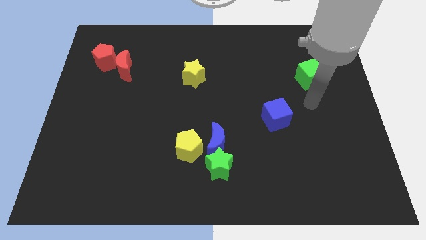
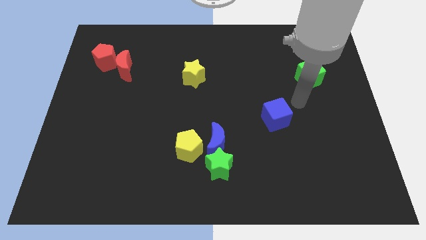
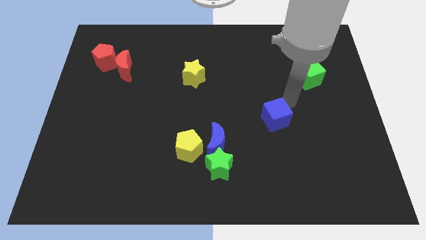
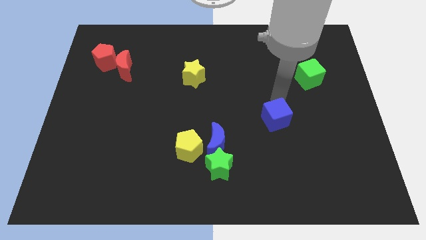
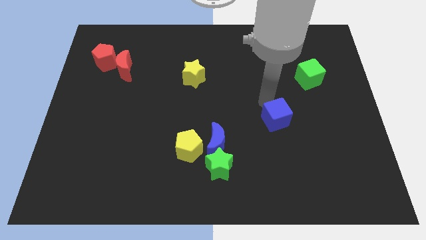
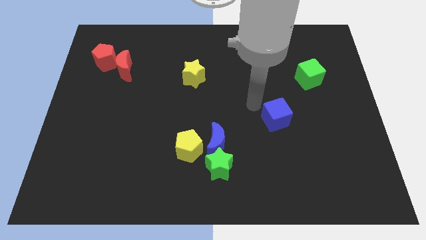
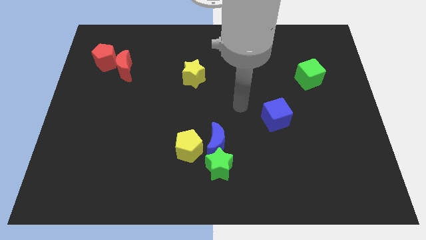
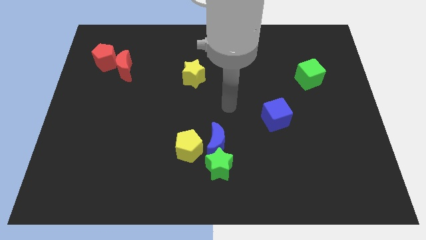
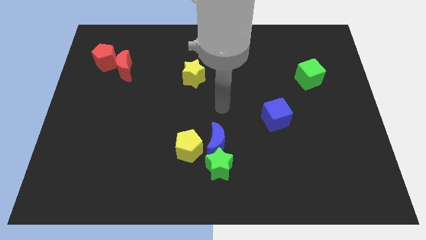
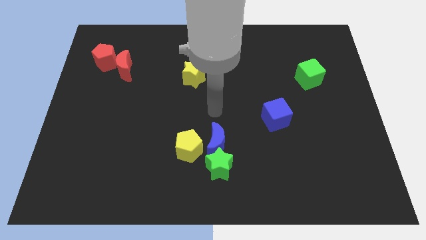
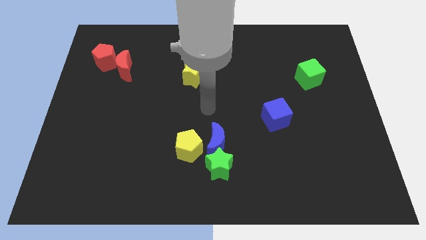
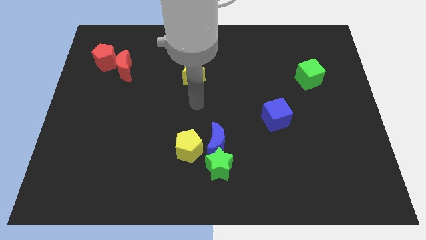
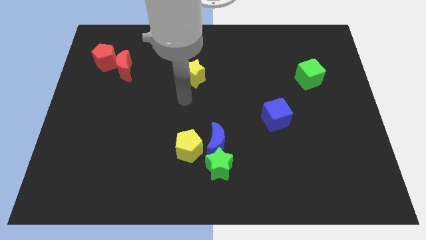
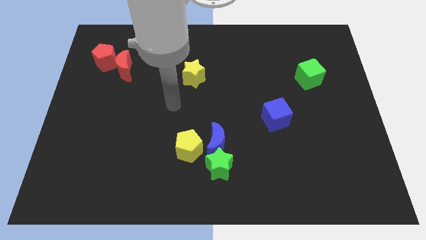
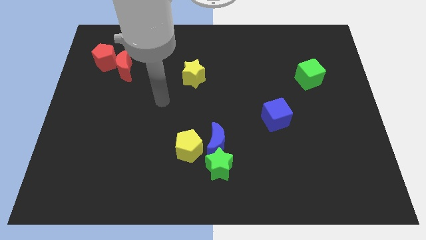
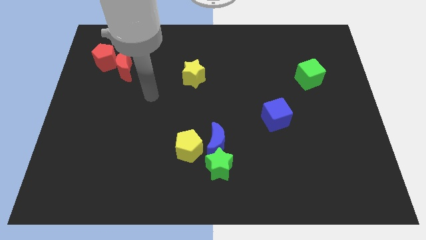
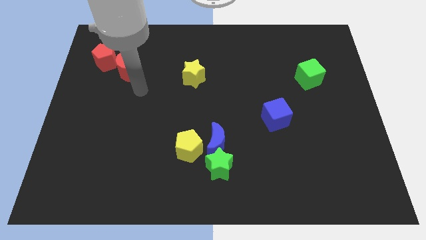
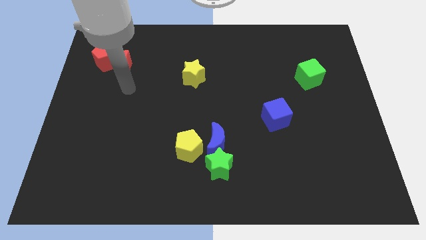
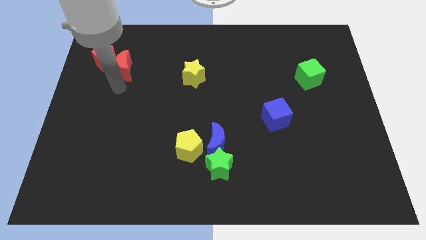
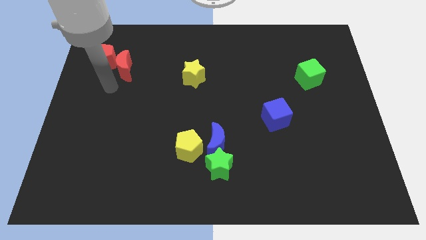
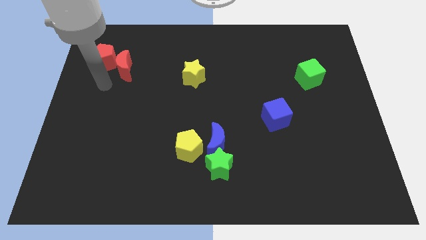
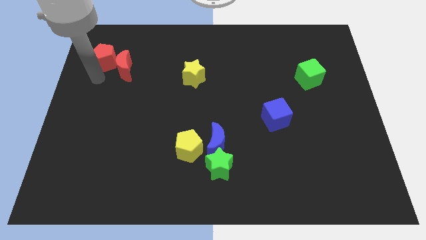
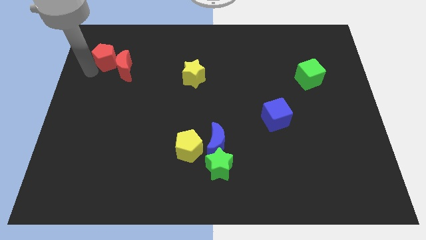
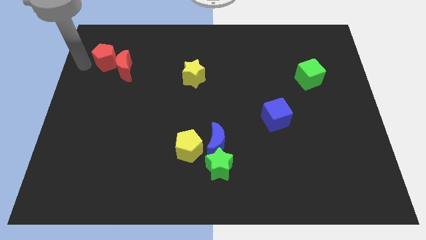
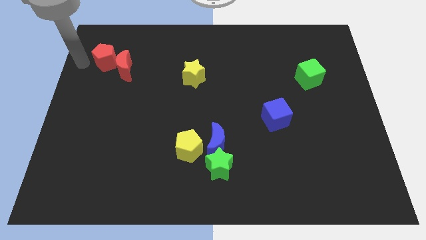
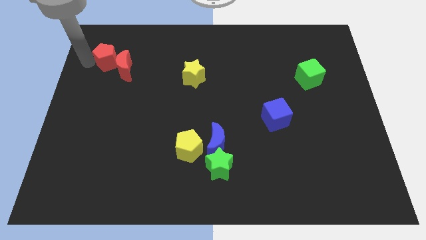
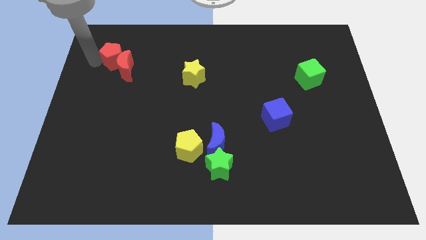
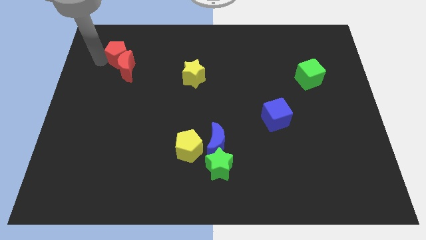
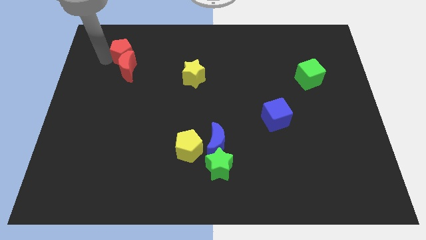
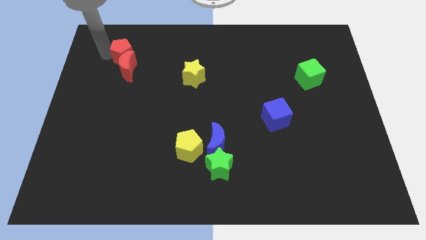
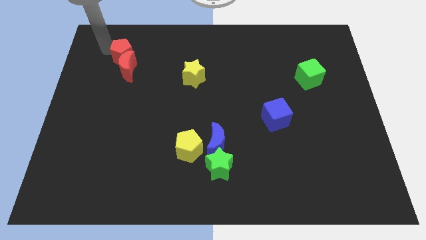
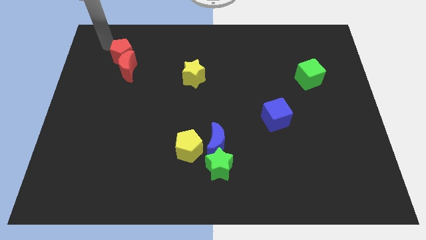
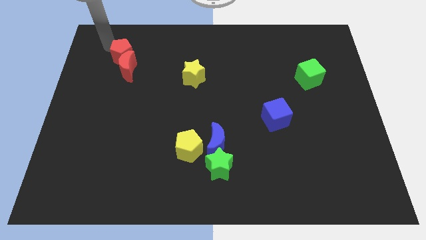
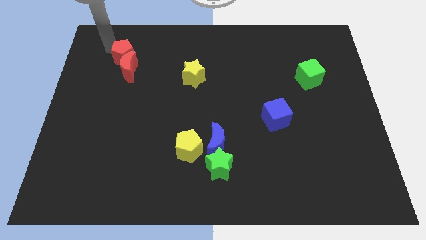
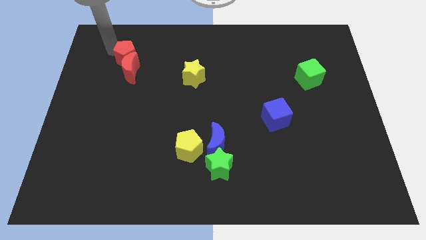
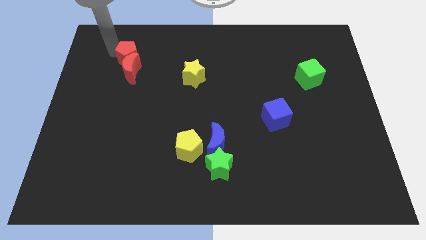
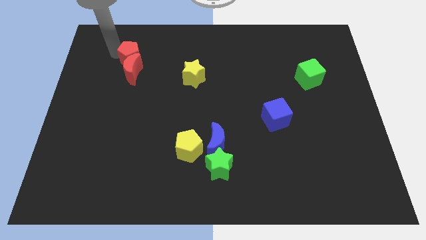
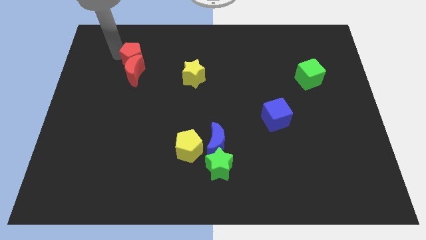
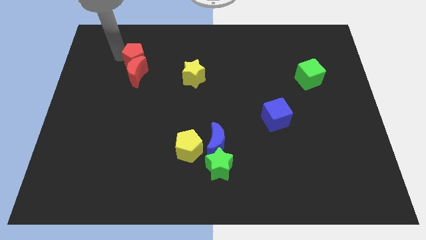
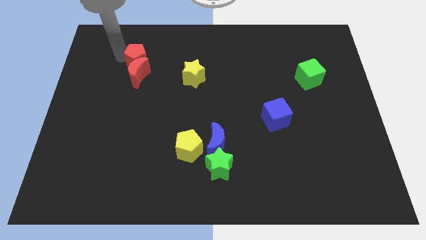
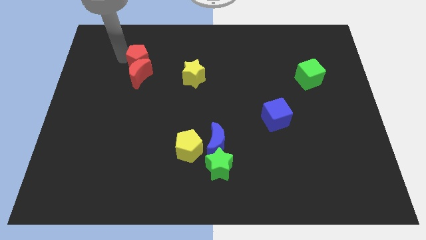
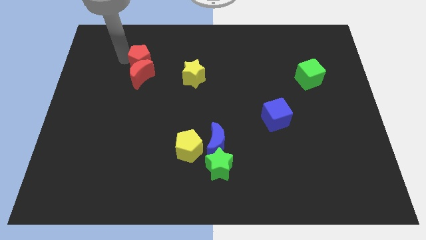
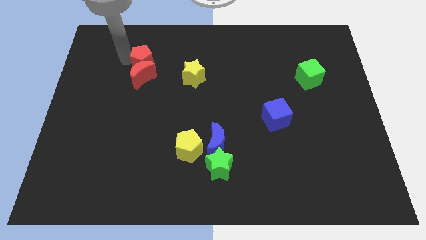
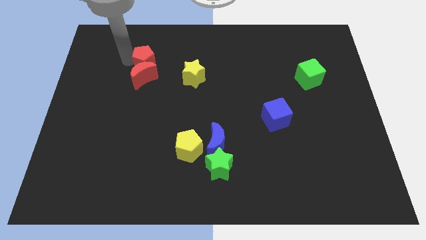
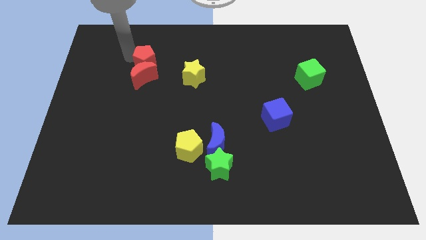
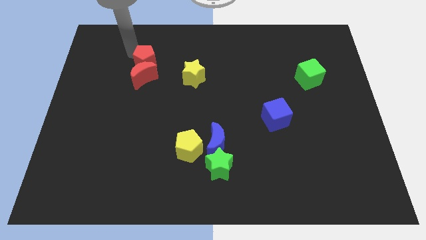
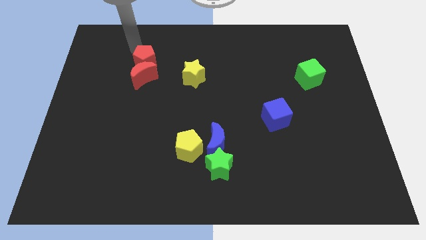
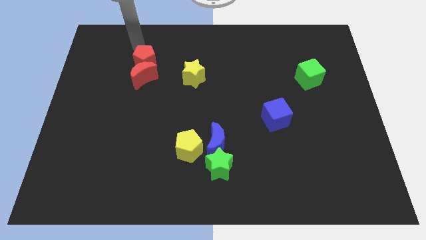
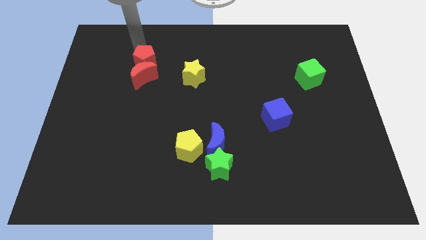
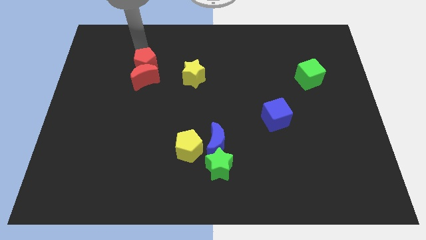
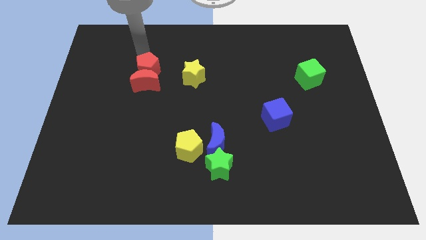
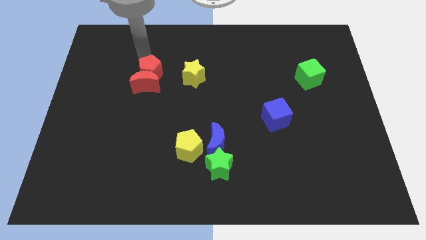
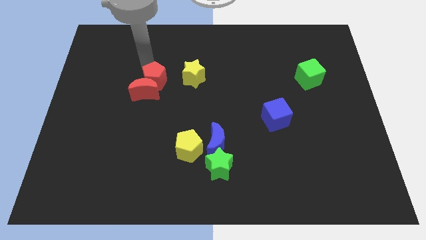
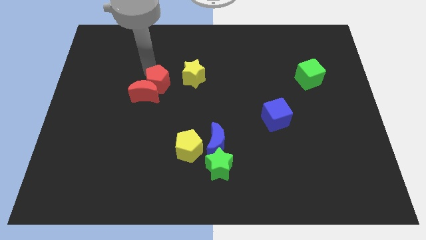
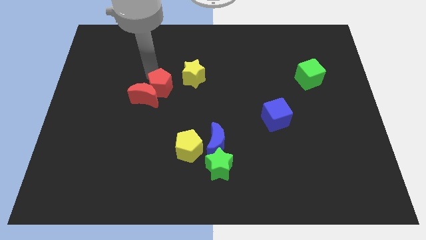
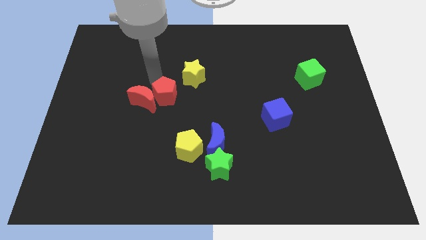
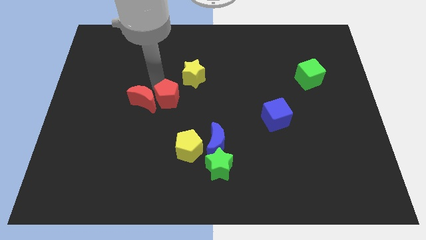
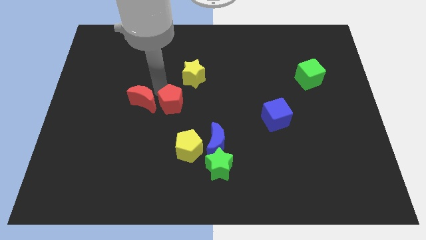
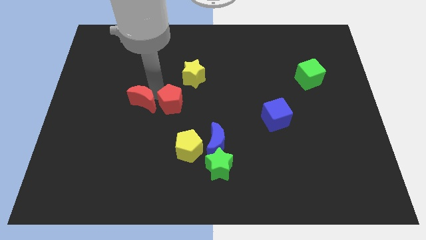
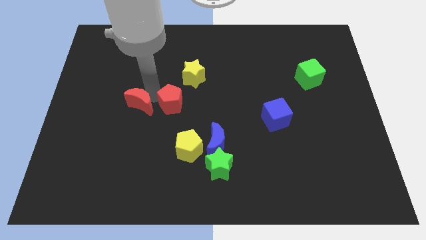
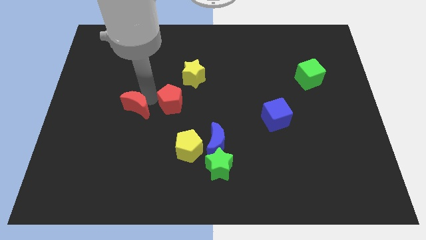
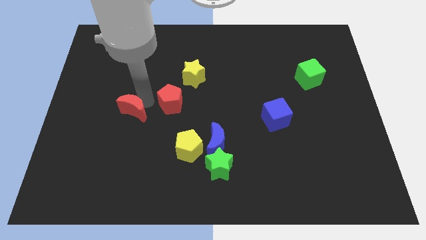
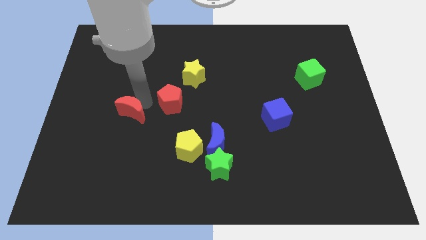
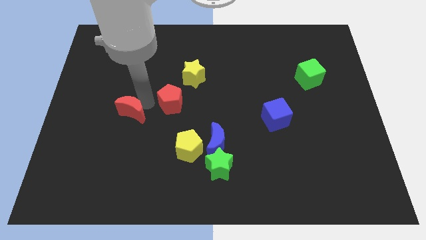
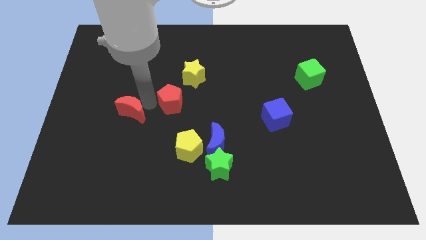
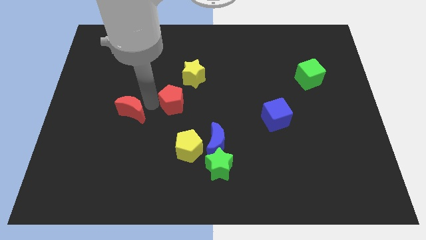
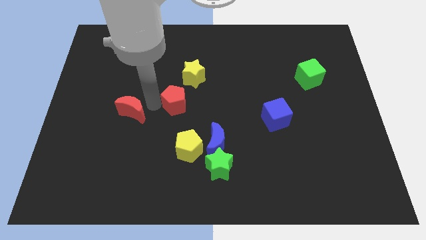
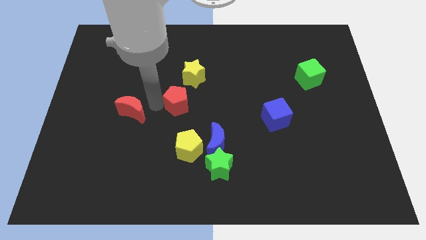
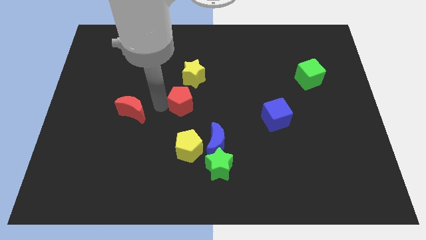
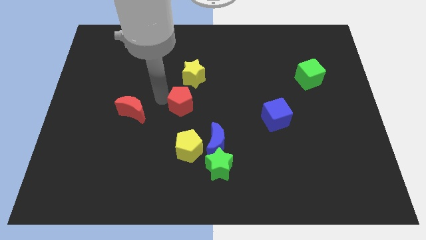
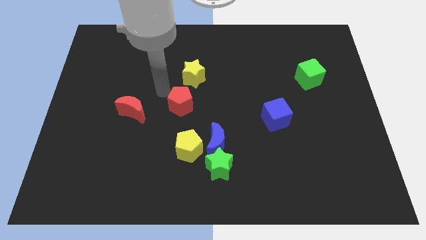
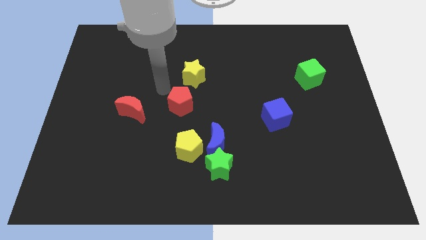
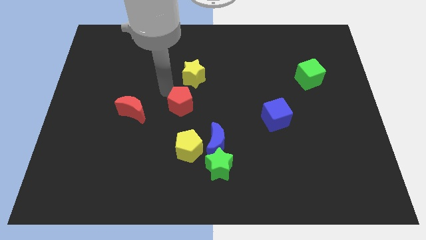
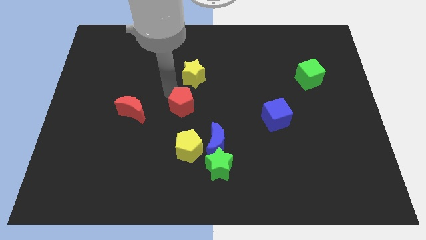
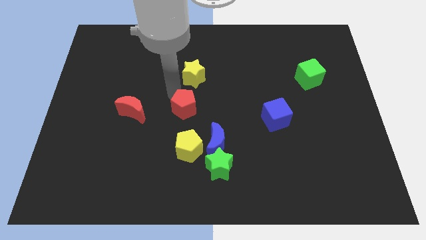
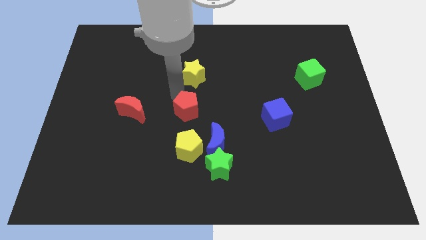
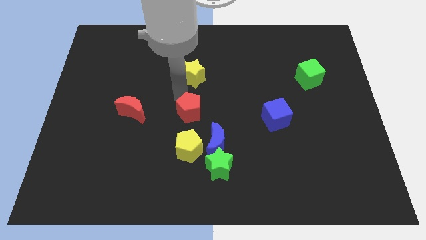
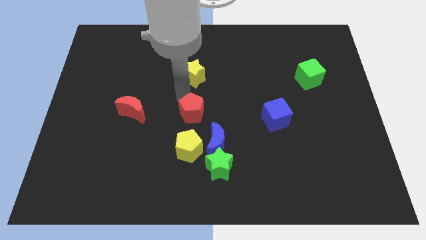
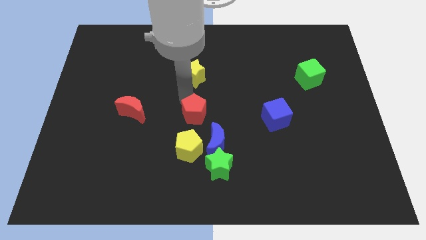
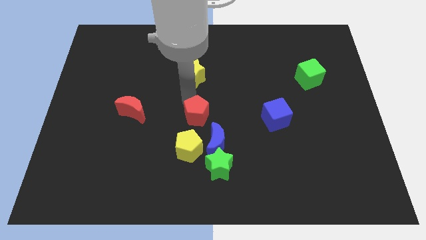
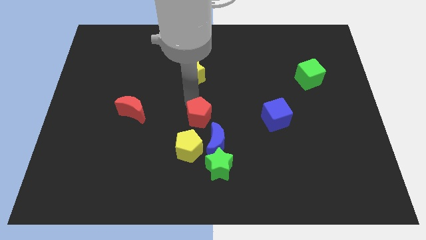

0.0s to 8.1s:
push the red pentagon diagonally up and to the right of the yellow pentagon
